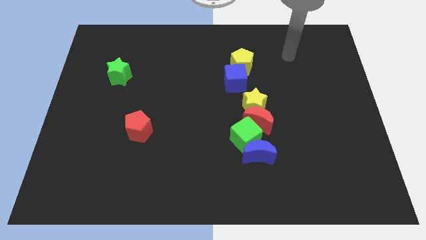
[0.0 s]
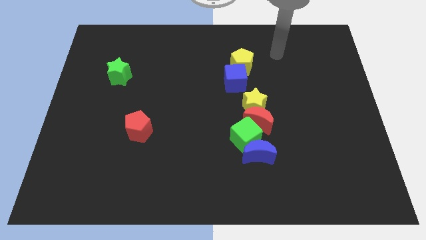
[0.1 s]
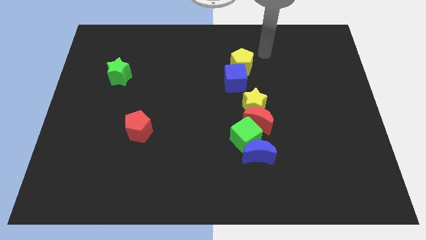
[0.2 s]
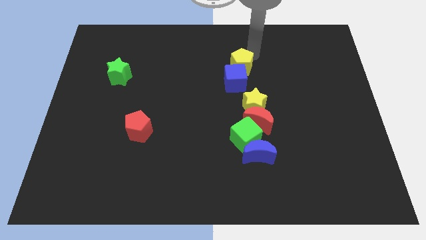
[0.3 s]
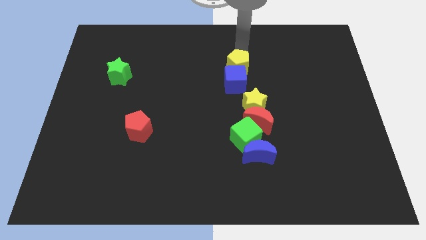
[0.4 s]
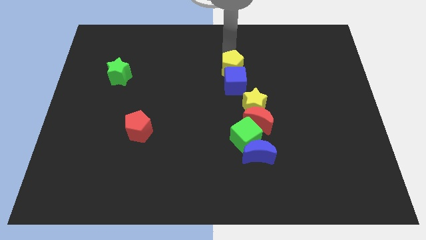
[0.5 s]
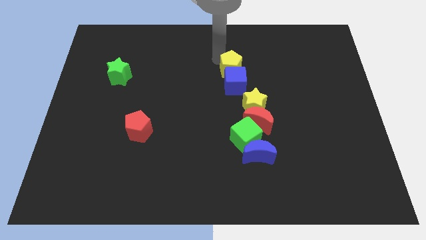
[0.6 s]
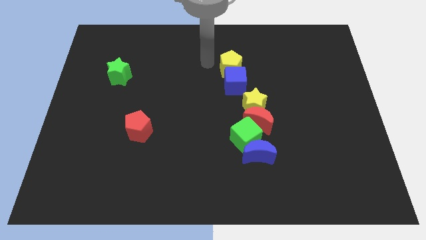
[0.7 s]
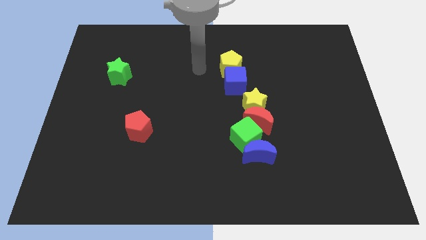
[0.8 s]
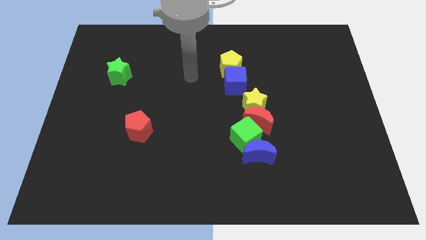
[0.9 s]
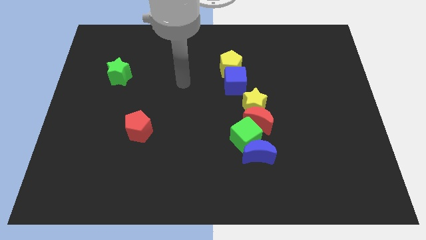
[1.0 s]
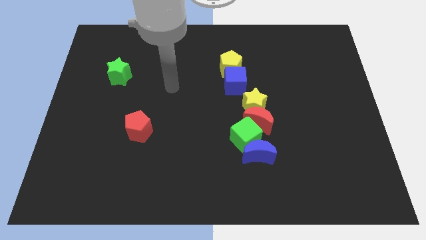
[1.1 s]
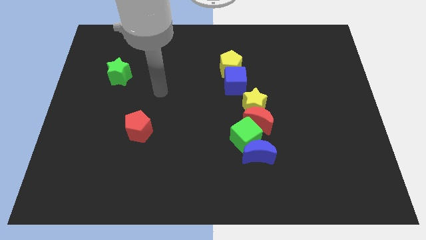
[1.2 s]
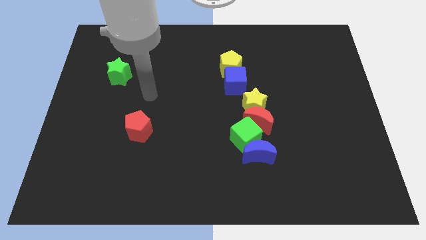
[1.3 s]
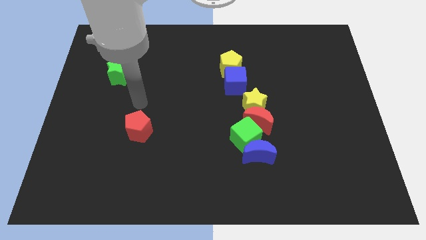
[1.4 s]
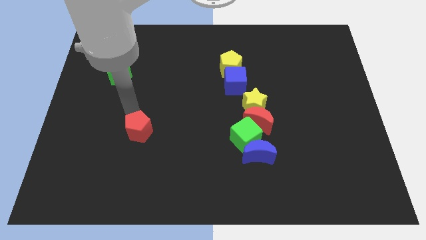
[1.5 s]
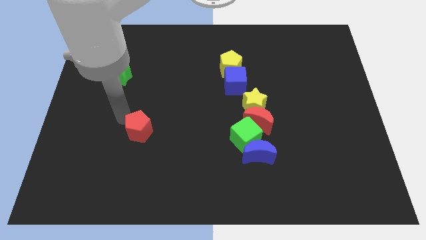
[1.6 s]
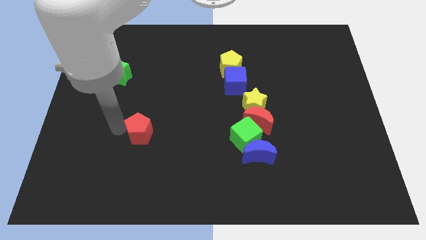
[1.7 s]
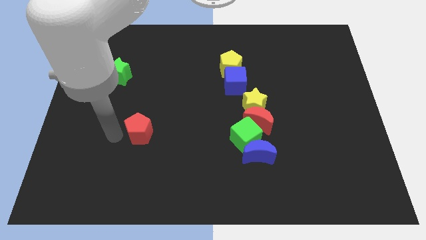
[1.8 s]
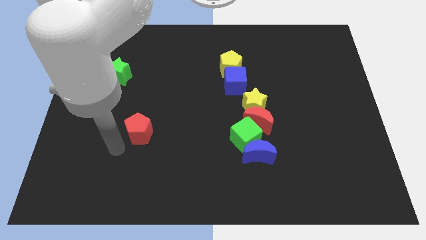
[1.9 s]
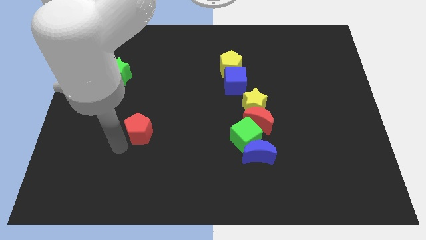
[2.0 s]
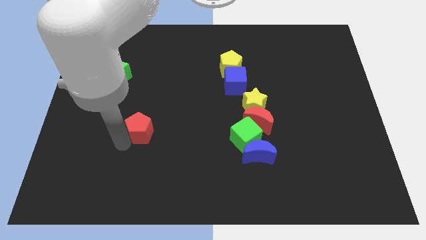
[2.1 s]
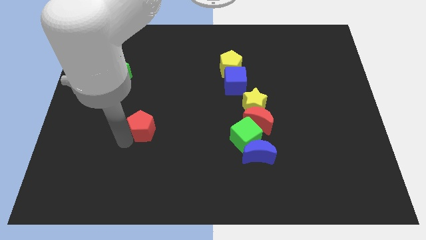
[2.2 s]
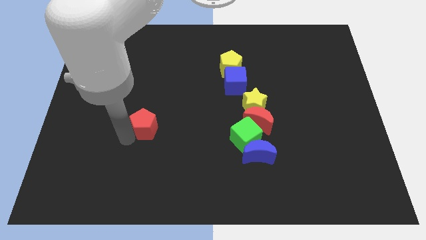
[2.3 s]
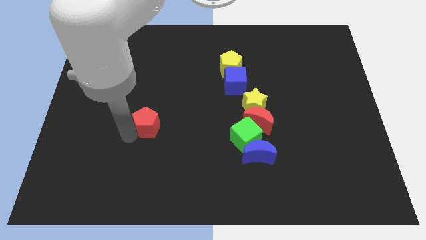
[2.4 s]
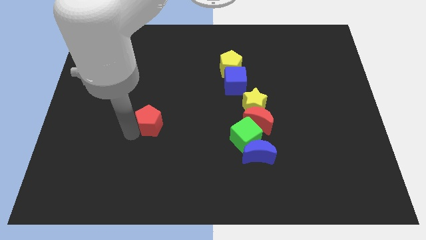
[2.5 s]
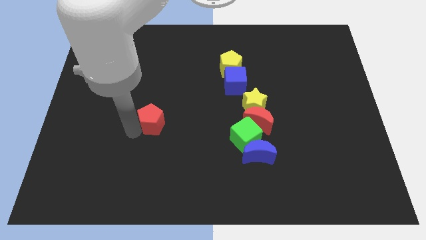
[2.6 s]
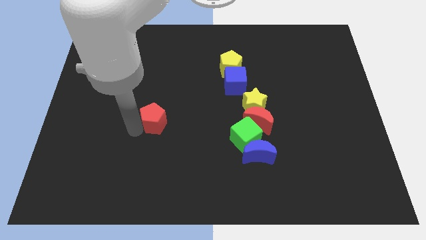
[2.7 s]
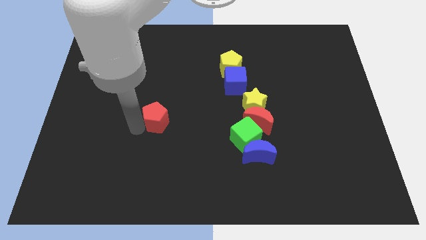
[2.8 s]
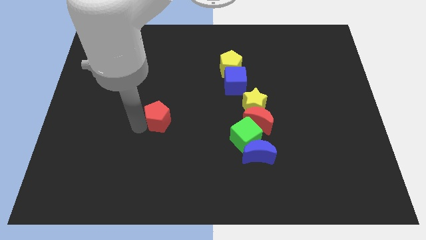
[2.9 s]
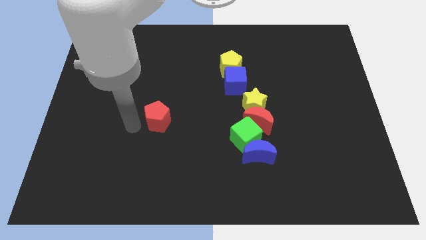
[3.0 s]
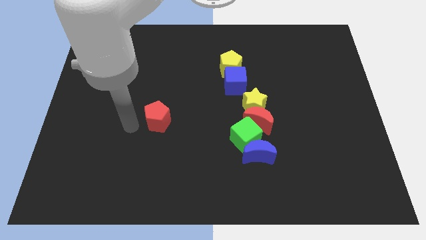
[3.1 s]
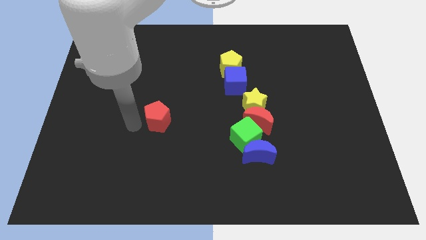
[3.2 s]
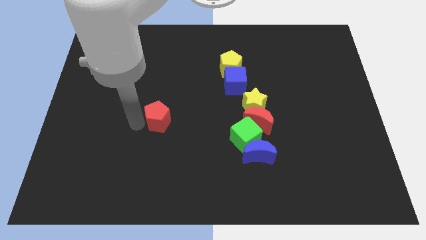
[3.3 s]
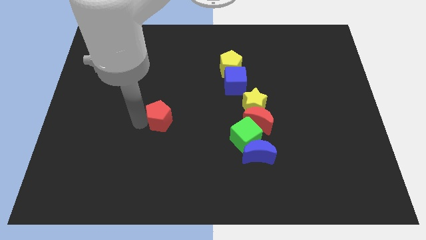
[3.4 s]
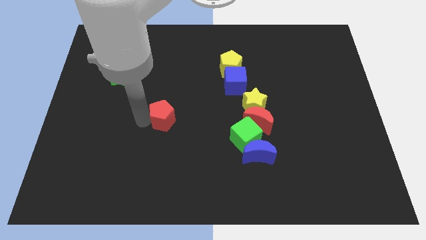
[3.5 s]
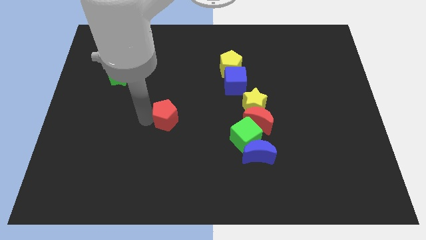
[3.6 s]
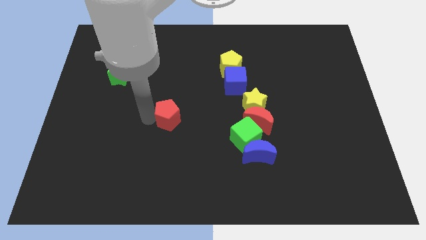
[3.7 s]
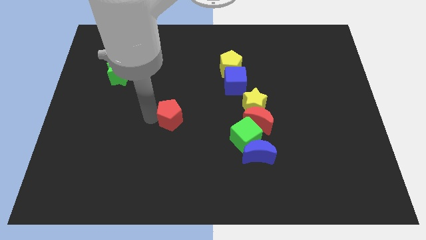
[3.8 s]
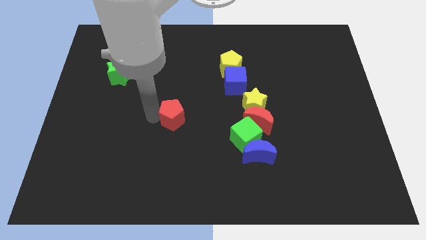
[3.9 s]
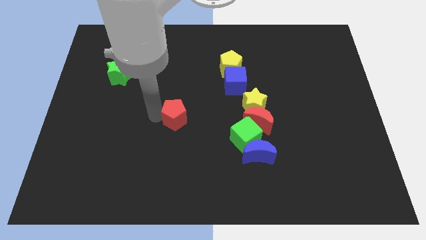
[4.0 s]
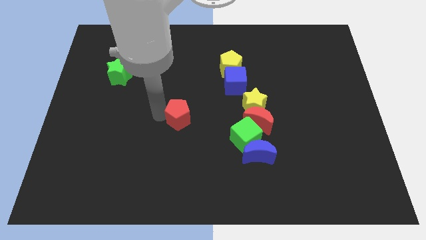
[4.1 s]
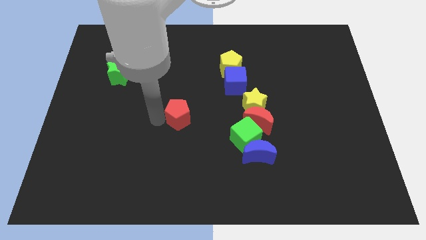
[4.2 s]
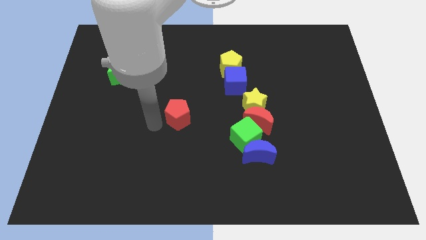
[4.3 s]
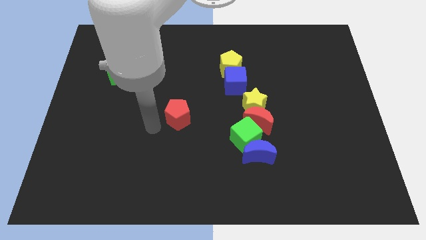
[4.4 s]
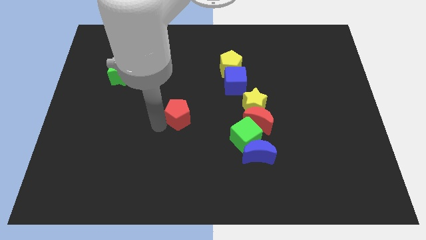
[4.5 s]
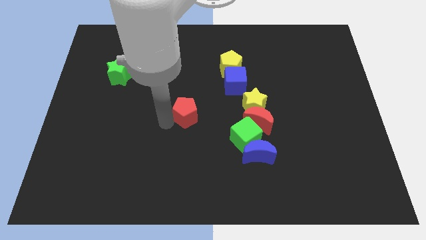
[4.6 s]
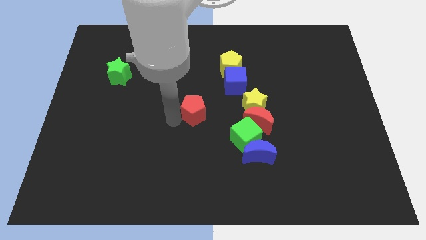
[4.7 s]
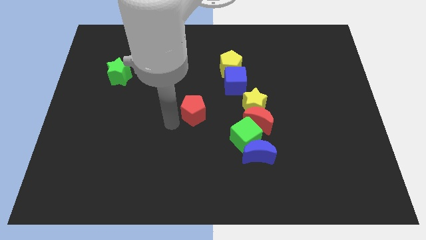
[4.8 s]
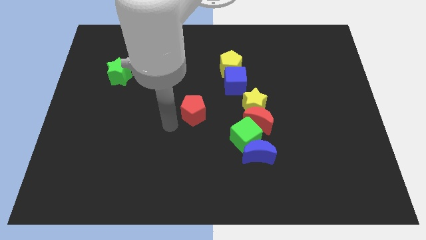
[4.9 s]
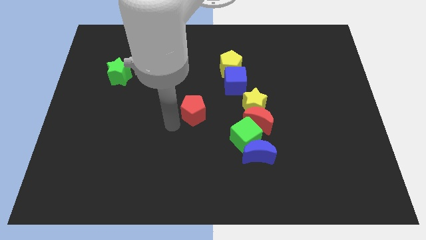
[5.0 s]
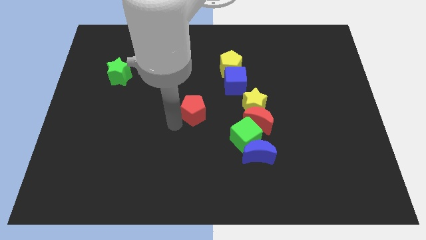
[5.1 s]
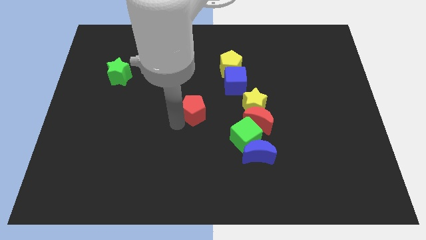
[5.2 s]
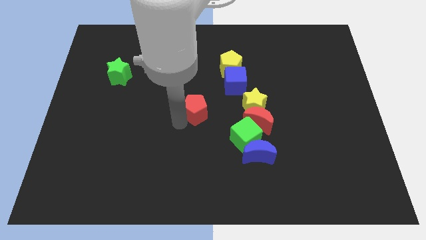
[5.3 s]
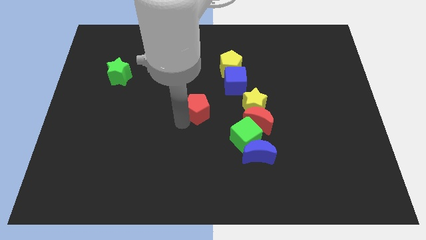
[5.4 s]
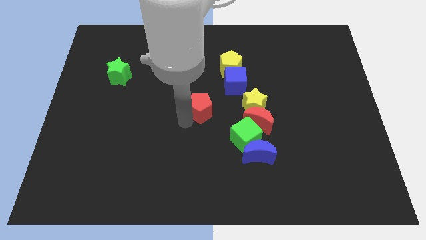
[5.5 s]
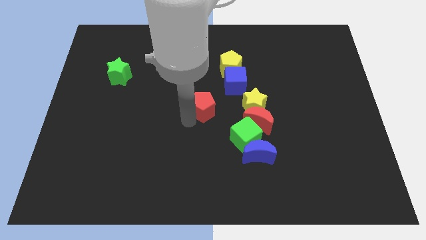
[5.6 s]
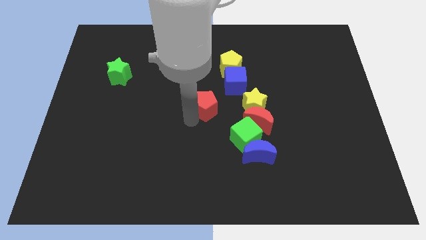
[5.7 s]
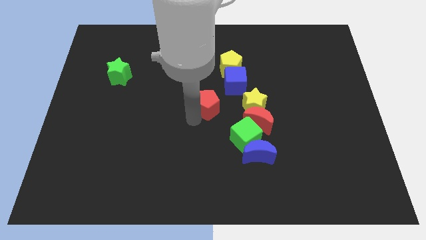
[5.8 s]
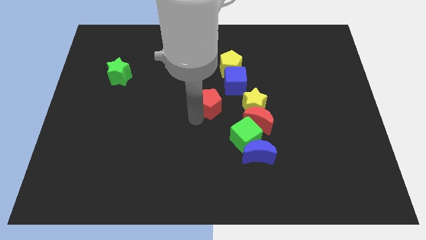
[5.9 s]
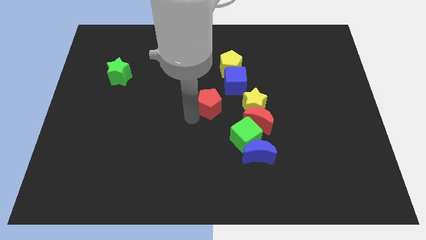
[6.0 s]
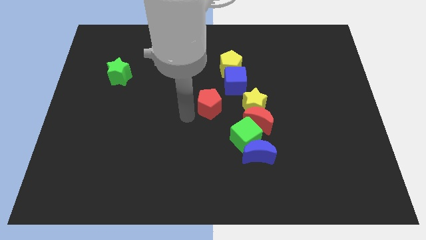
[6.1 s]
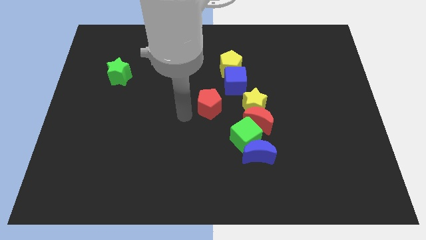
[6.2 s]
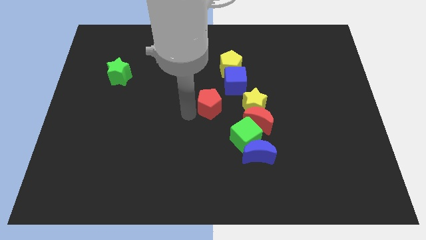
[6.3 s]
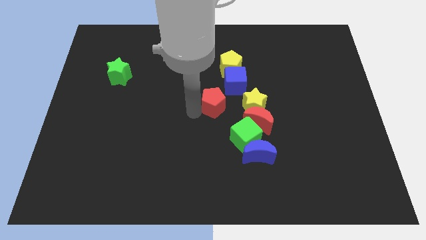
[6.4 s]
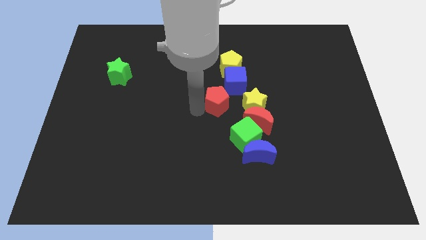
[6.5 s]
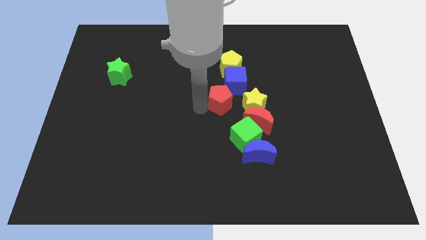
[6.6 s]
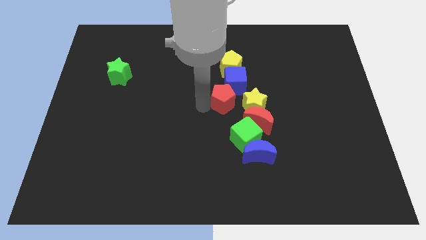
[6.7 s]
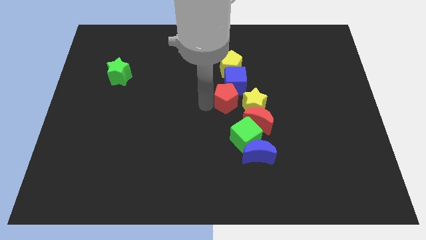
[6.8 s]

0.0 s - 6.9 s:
move the red pentagon next to the yellow star
